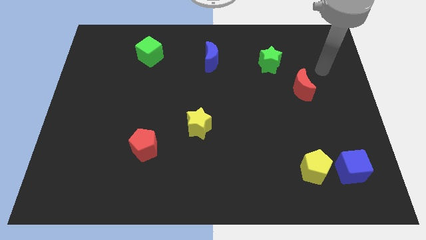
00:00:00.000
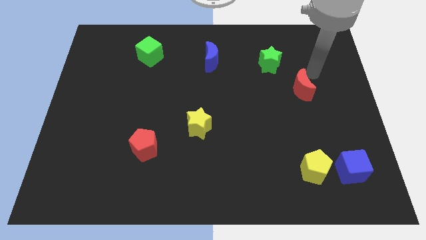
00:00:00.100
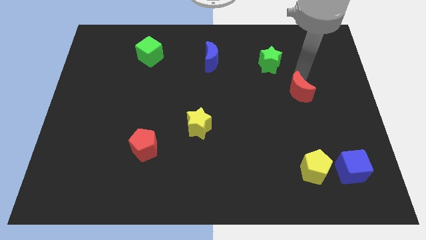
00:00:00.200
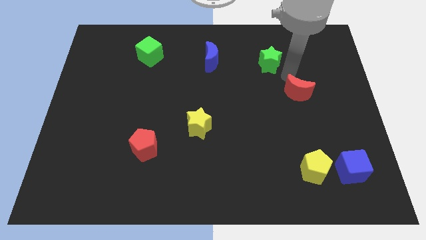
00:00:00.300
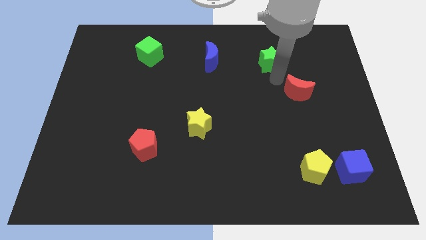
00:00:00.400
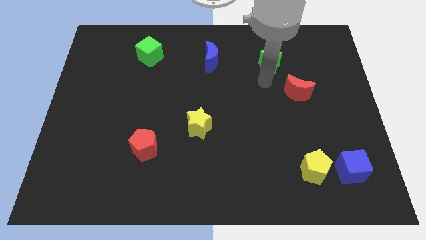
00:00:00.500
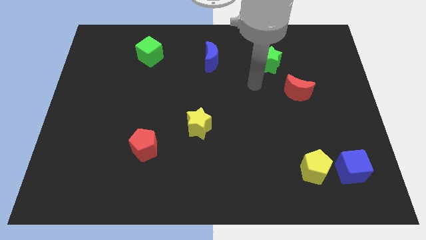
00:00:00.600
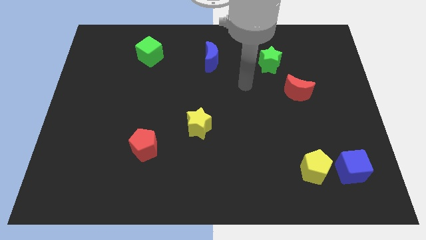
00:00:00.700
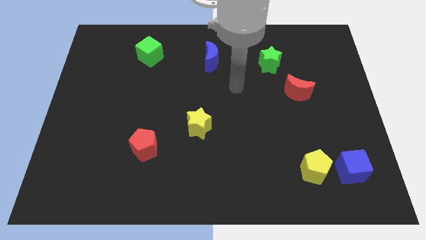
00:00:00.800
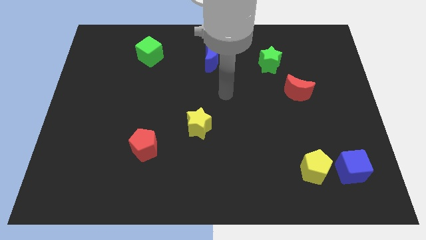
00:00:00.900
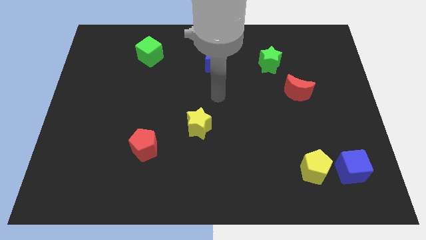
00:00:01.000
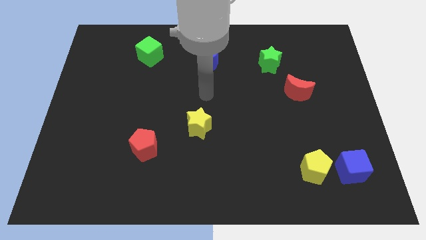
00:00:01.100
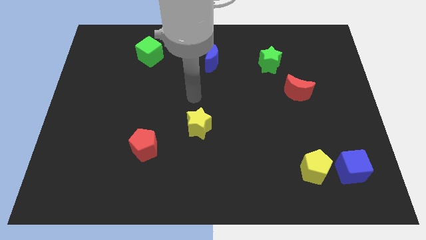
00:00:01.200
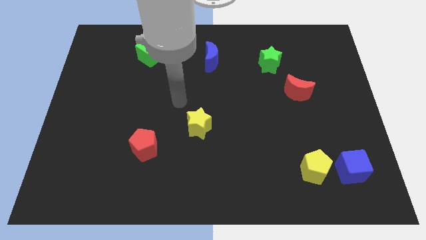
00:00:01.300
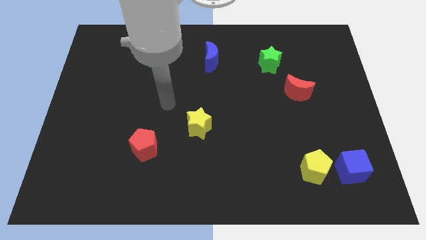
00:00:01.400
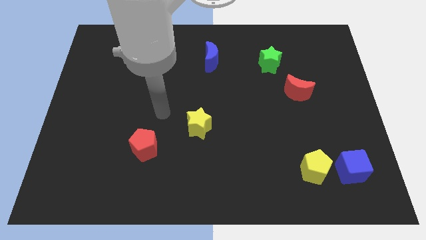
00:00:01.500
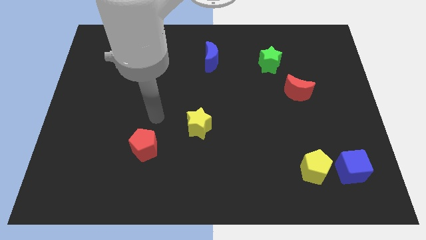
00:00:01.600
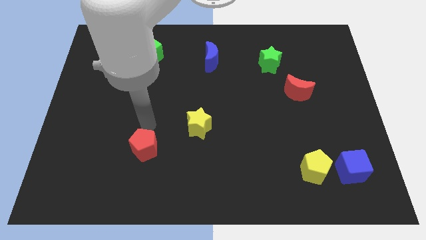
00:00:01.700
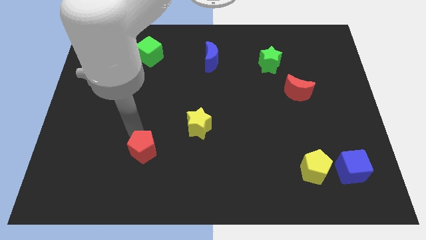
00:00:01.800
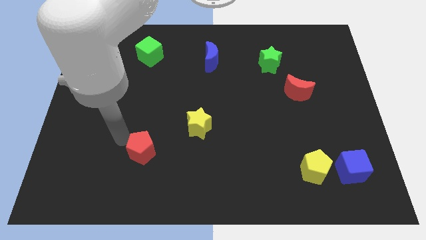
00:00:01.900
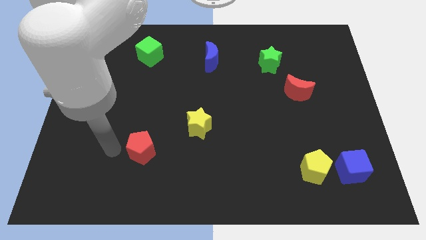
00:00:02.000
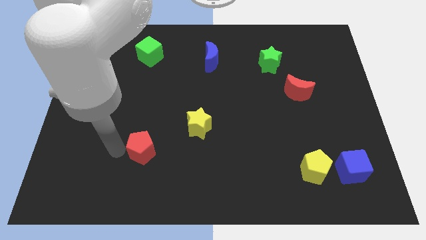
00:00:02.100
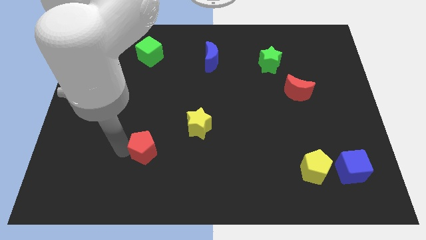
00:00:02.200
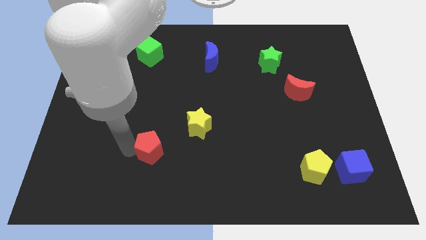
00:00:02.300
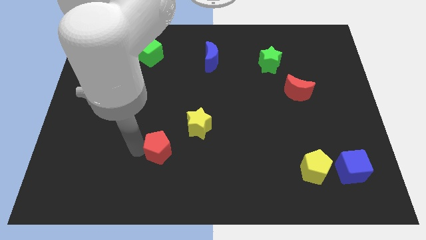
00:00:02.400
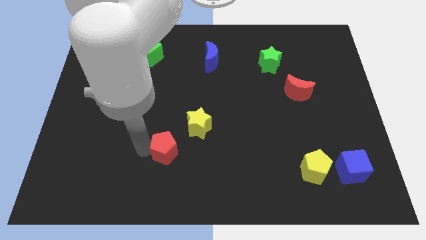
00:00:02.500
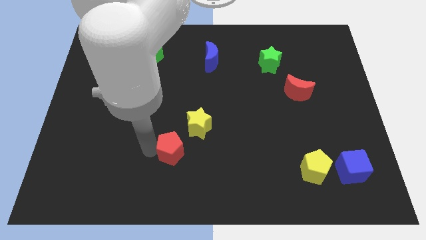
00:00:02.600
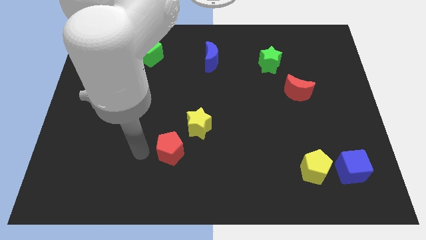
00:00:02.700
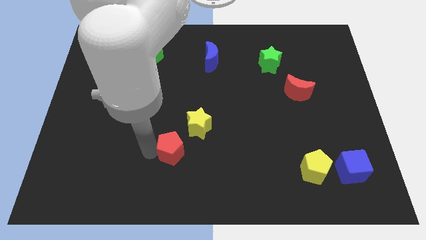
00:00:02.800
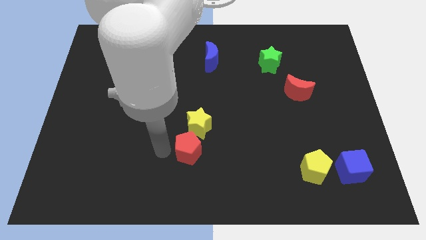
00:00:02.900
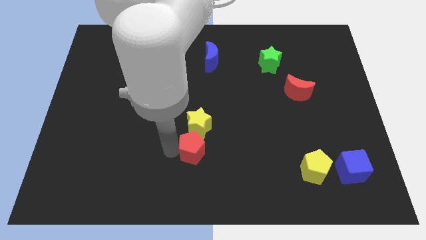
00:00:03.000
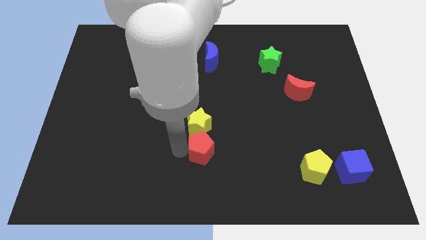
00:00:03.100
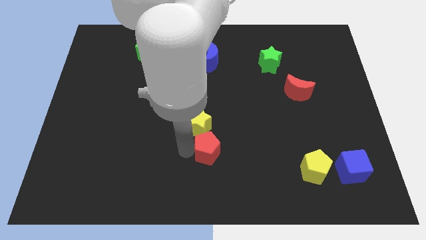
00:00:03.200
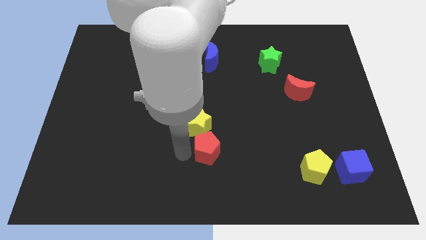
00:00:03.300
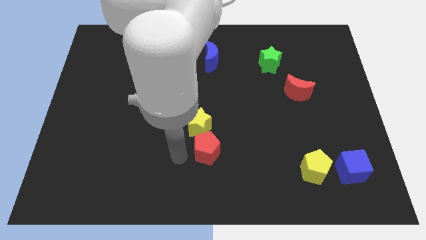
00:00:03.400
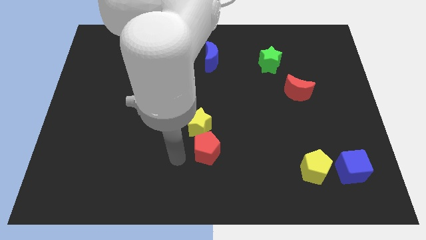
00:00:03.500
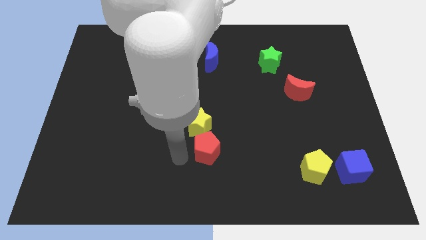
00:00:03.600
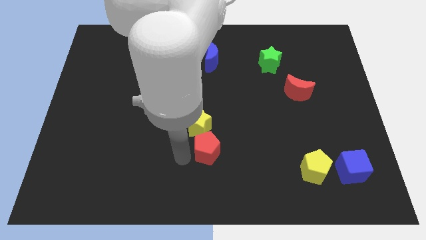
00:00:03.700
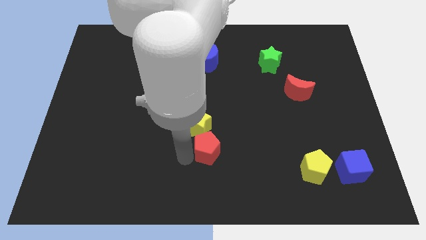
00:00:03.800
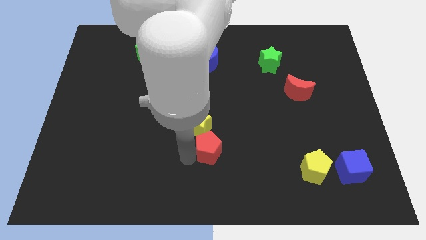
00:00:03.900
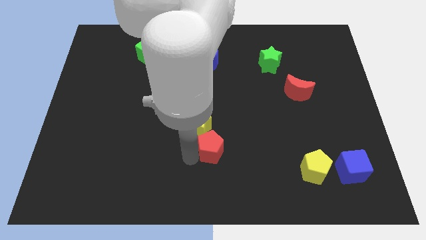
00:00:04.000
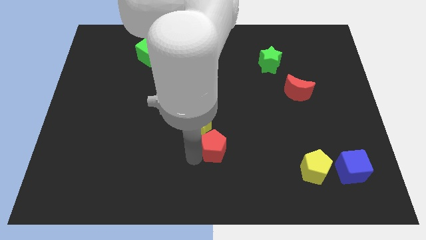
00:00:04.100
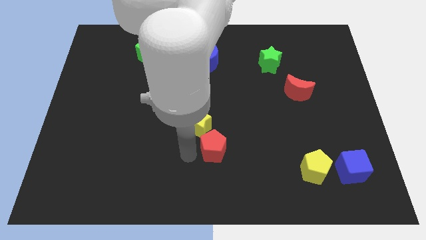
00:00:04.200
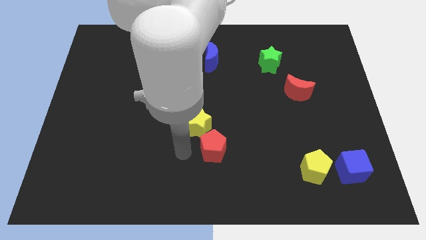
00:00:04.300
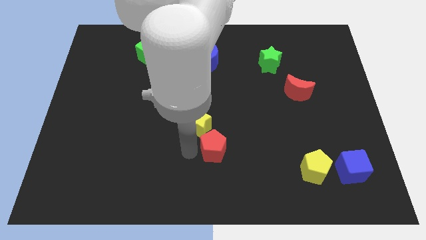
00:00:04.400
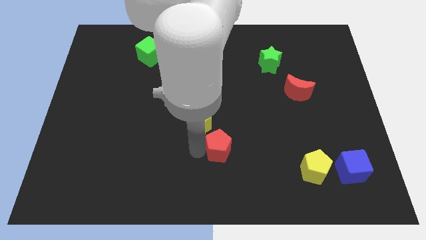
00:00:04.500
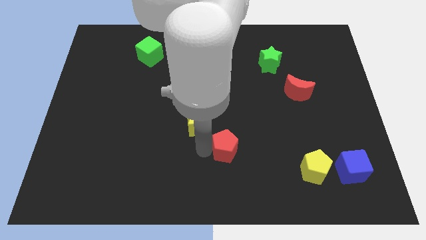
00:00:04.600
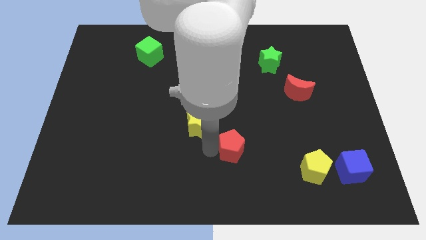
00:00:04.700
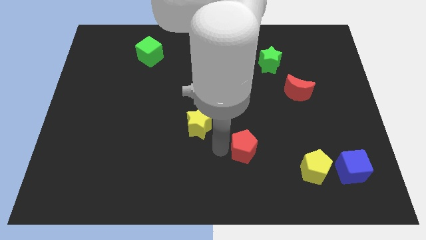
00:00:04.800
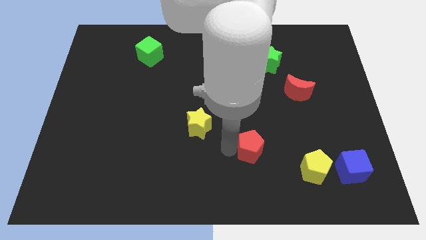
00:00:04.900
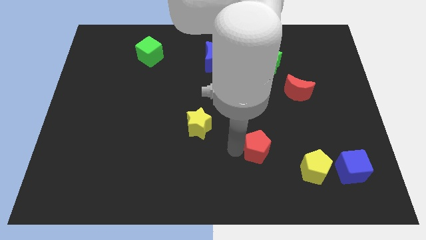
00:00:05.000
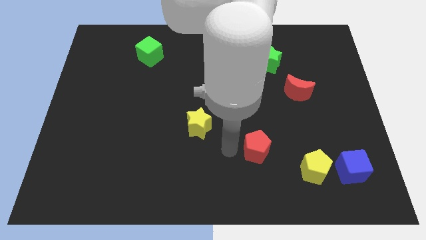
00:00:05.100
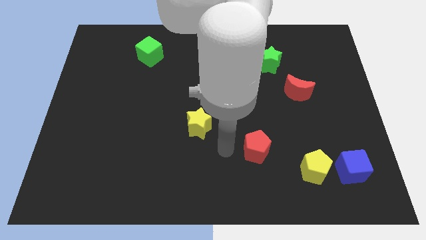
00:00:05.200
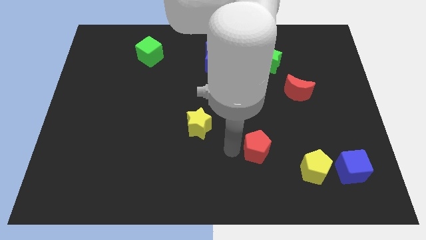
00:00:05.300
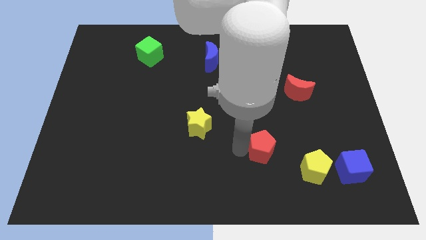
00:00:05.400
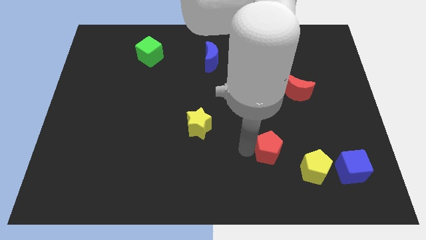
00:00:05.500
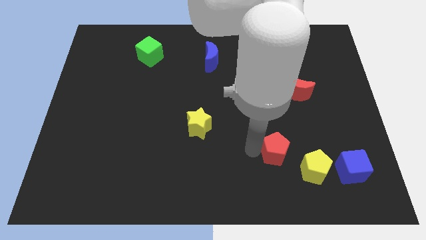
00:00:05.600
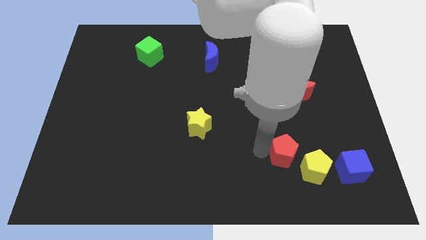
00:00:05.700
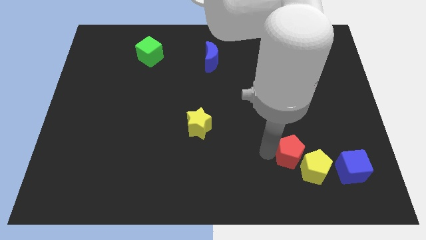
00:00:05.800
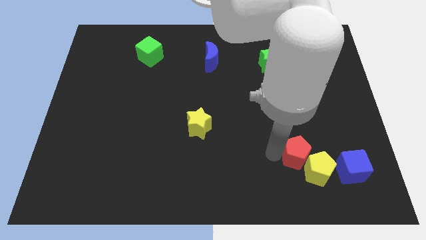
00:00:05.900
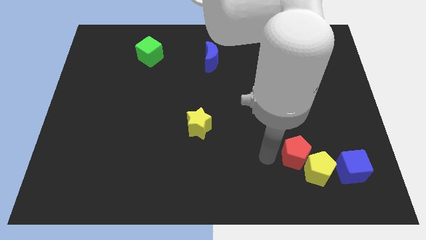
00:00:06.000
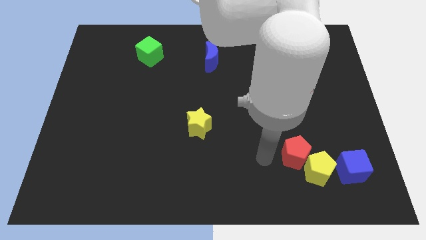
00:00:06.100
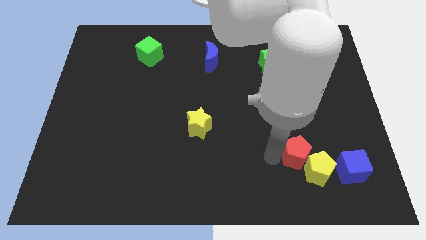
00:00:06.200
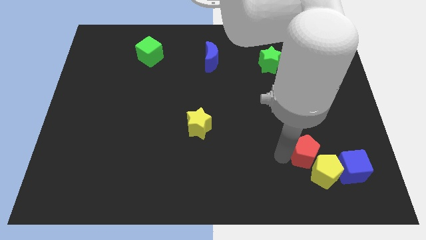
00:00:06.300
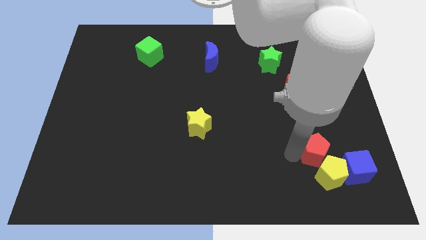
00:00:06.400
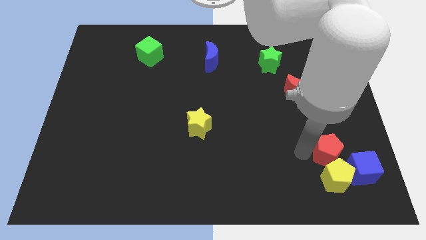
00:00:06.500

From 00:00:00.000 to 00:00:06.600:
put the red pentagon to the top right of the yellow pentagon

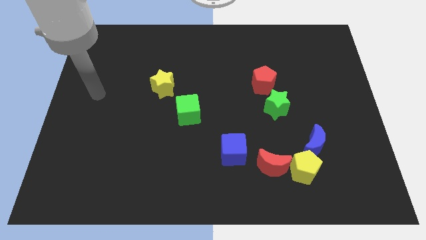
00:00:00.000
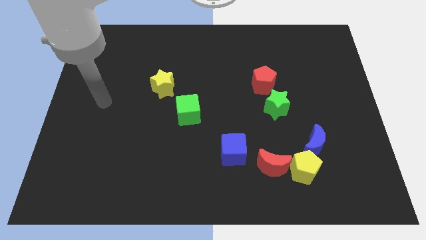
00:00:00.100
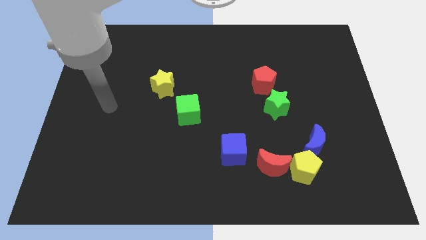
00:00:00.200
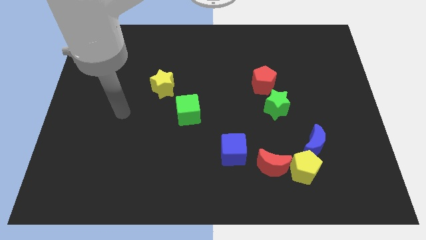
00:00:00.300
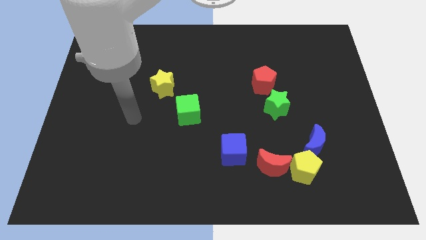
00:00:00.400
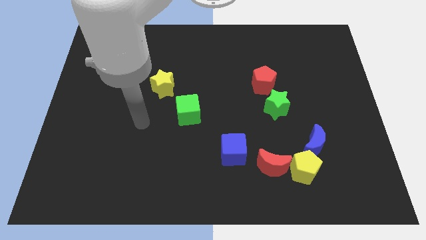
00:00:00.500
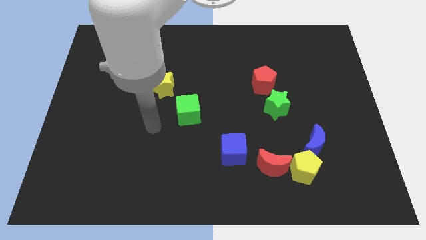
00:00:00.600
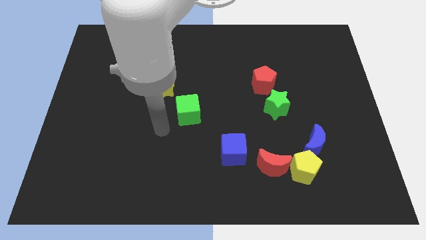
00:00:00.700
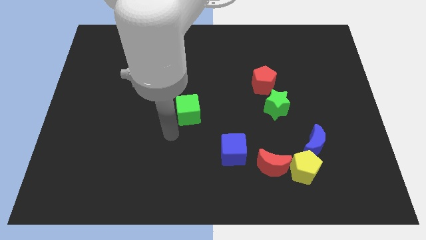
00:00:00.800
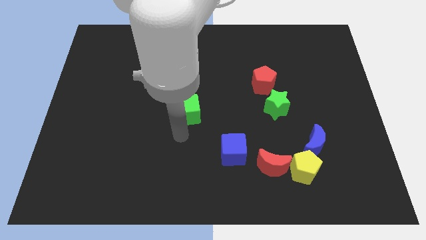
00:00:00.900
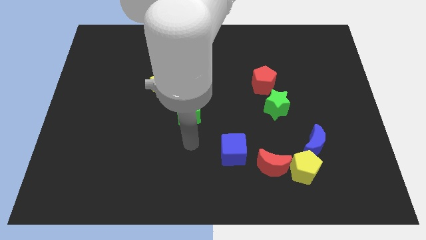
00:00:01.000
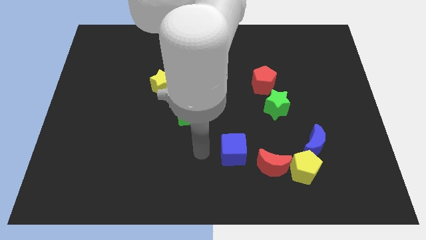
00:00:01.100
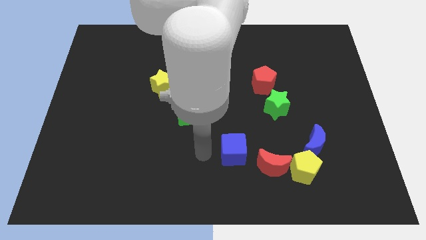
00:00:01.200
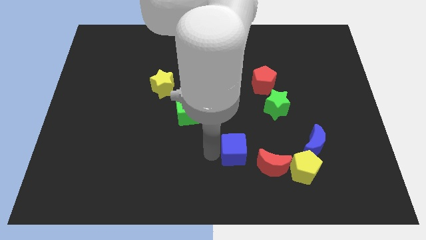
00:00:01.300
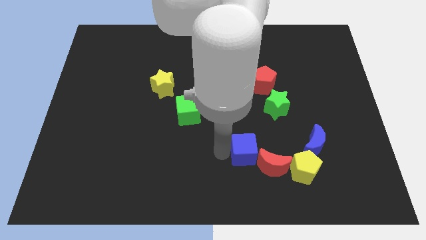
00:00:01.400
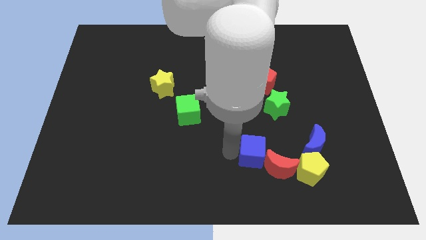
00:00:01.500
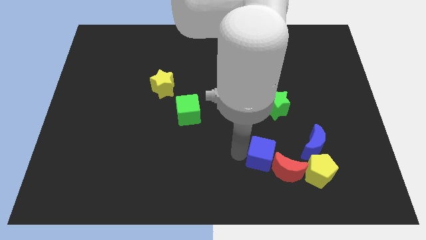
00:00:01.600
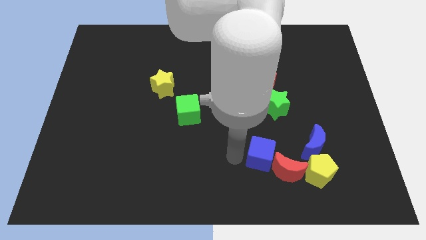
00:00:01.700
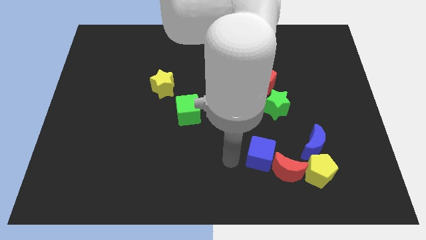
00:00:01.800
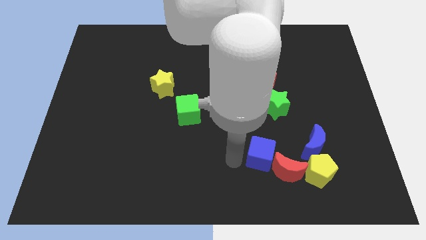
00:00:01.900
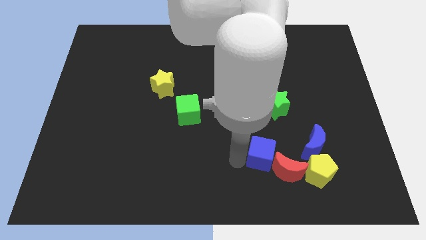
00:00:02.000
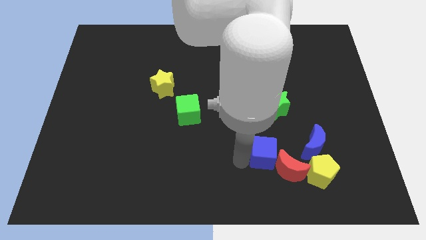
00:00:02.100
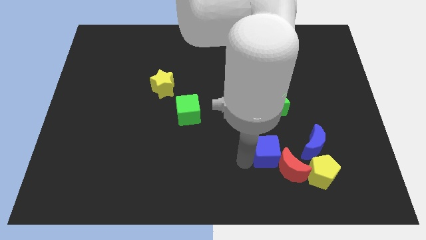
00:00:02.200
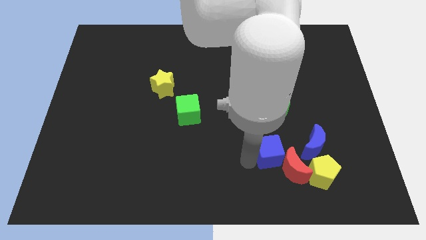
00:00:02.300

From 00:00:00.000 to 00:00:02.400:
put the blue cube to the top left of the yellow pentagon
